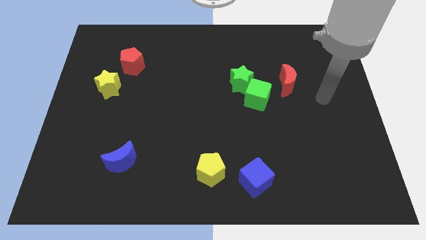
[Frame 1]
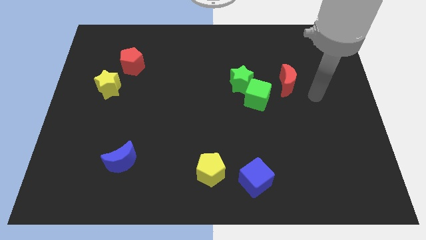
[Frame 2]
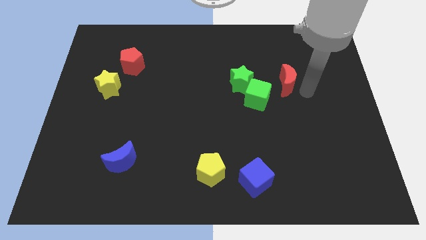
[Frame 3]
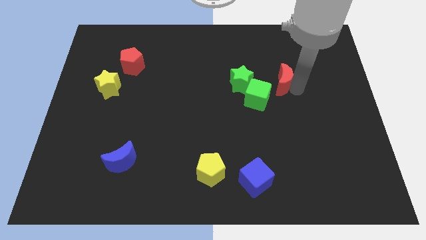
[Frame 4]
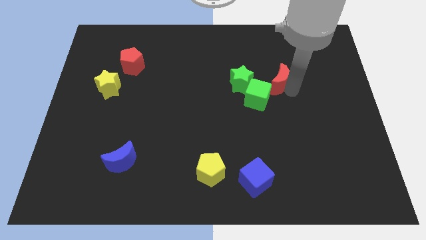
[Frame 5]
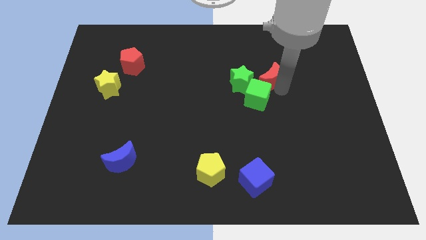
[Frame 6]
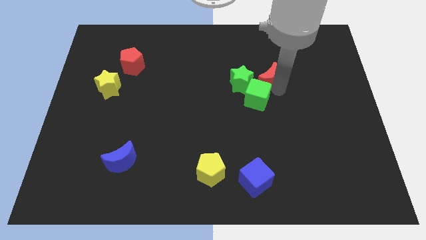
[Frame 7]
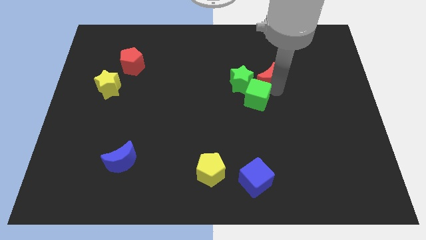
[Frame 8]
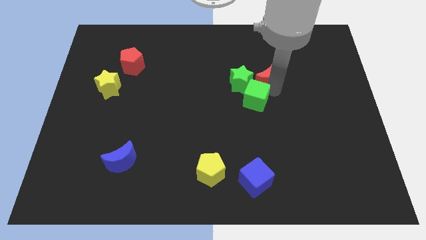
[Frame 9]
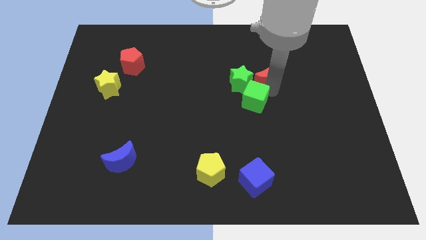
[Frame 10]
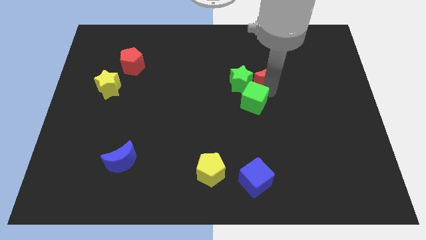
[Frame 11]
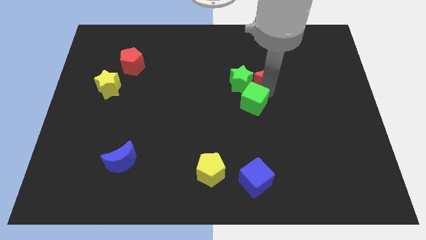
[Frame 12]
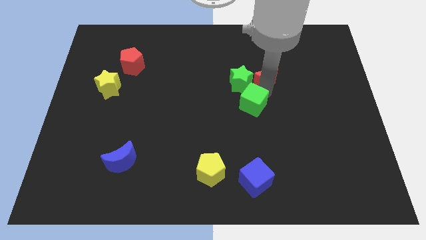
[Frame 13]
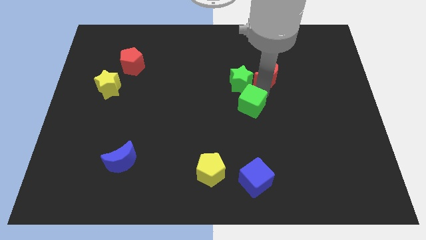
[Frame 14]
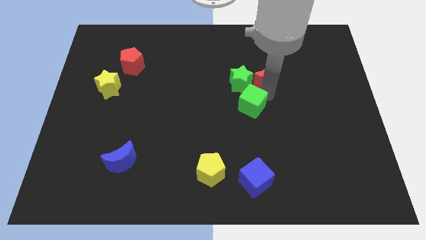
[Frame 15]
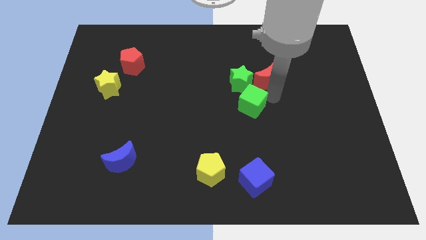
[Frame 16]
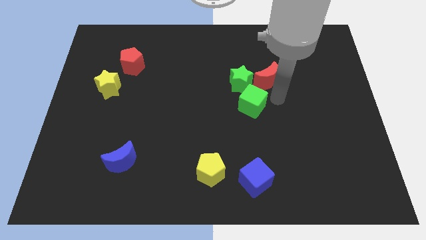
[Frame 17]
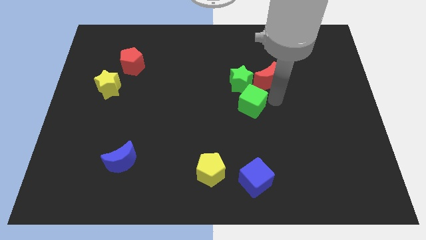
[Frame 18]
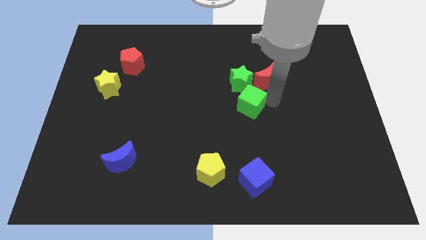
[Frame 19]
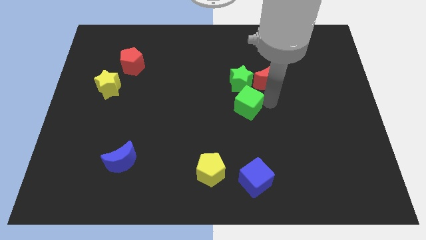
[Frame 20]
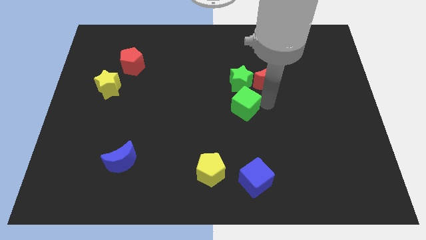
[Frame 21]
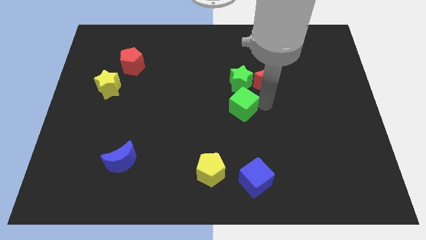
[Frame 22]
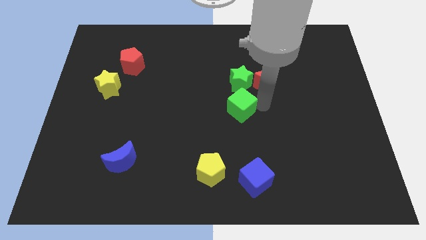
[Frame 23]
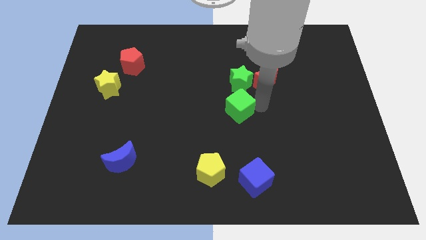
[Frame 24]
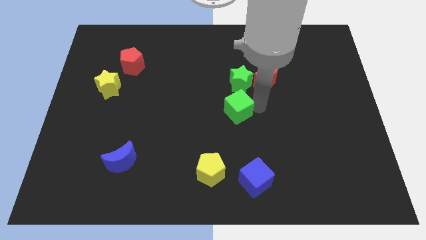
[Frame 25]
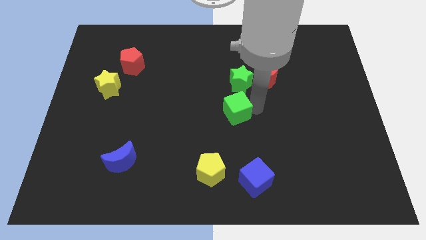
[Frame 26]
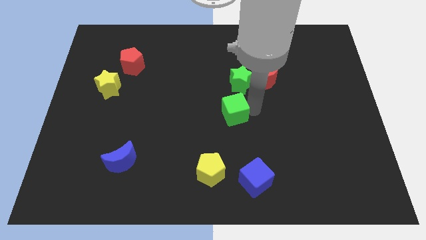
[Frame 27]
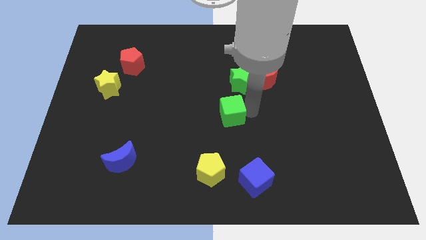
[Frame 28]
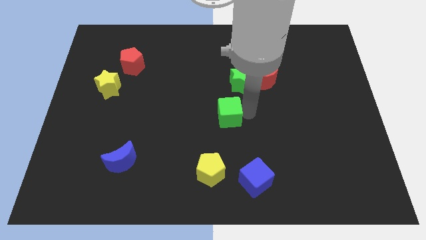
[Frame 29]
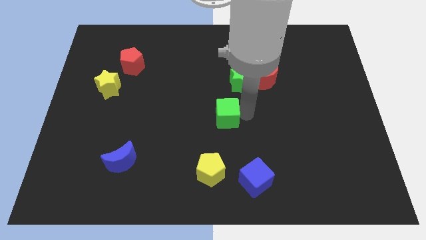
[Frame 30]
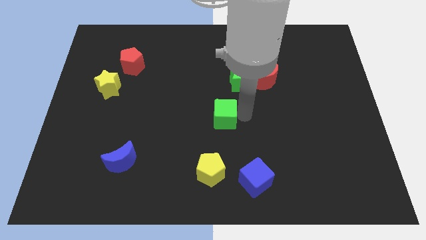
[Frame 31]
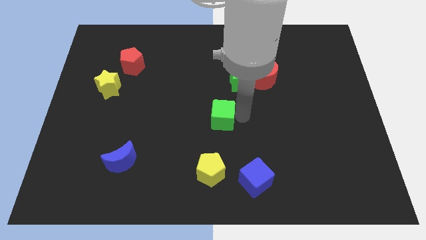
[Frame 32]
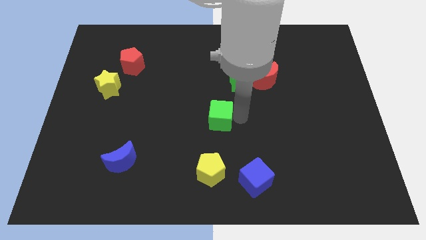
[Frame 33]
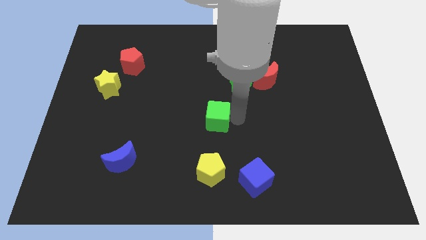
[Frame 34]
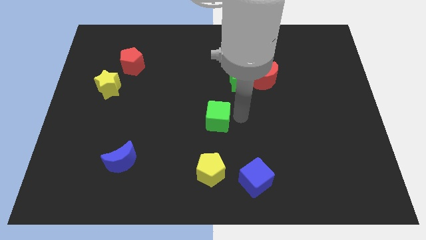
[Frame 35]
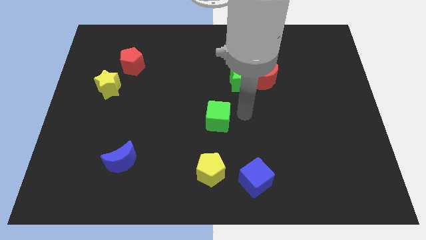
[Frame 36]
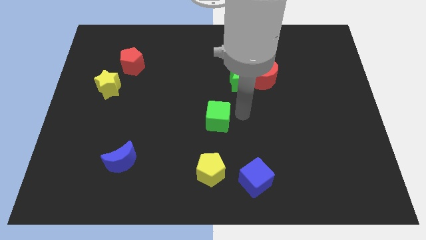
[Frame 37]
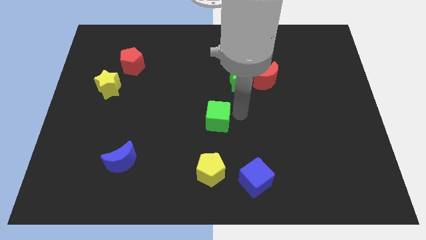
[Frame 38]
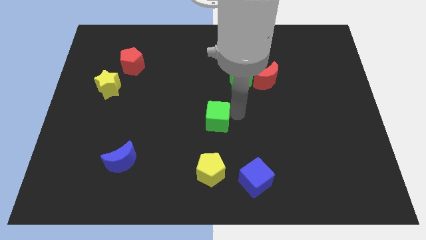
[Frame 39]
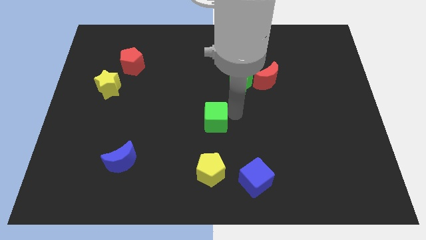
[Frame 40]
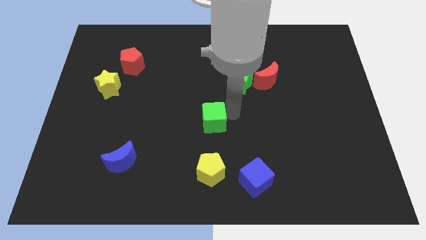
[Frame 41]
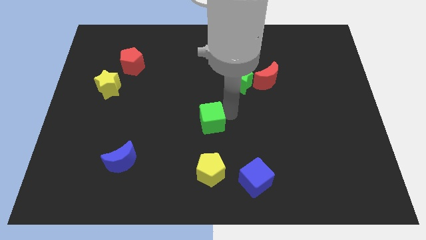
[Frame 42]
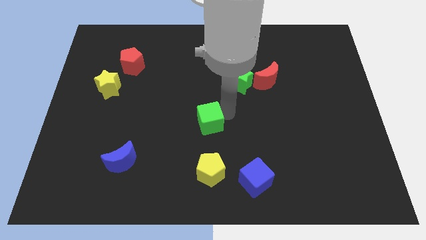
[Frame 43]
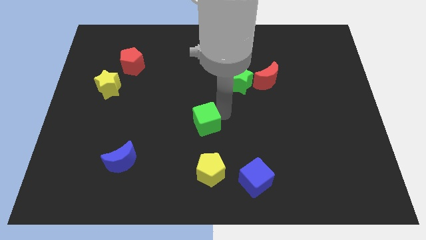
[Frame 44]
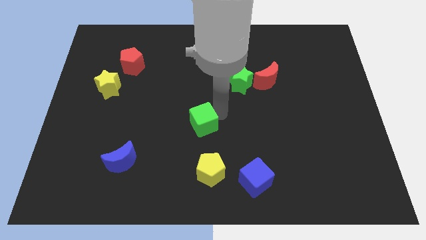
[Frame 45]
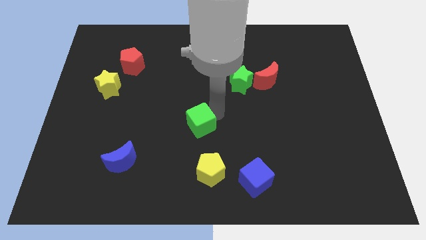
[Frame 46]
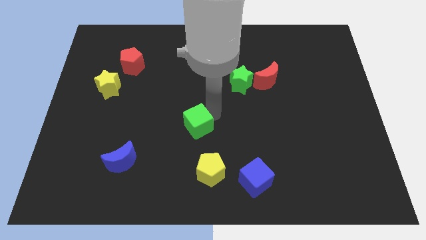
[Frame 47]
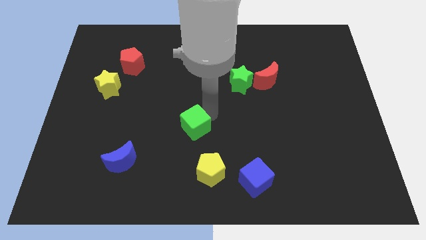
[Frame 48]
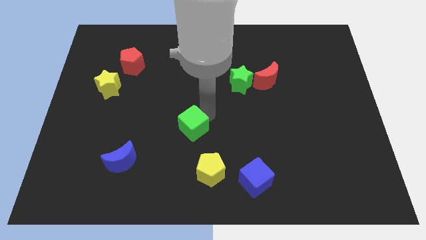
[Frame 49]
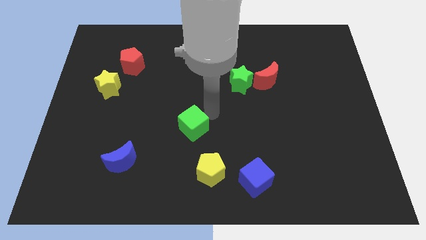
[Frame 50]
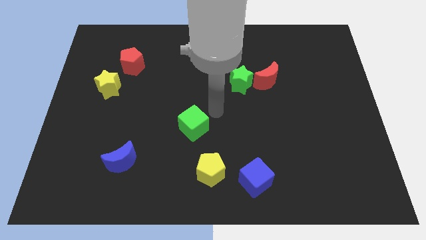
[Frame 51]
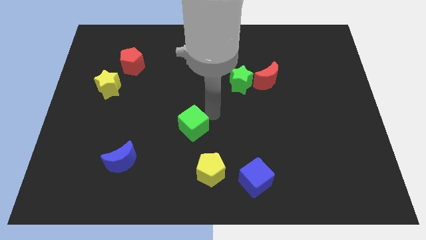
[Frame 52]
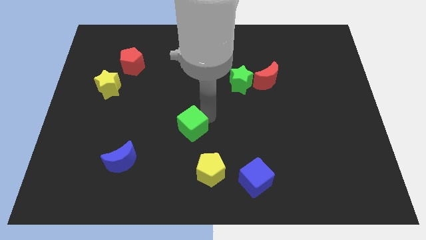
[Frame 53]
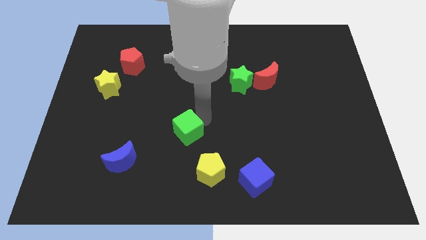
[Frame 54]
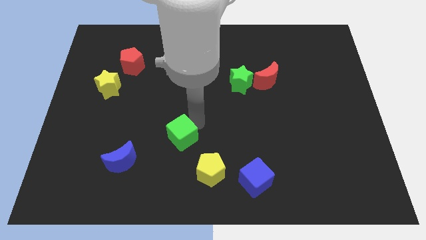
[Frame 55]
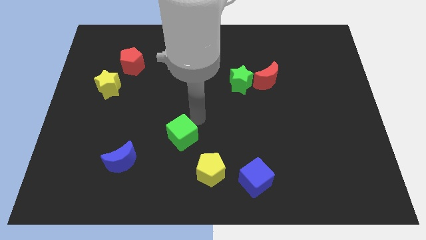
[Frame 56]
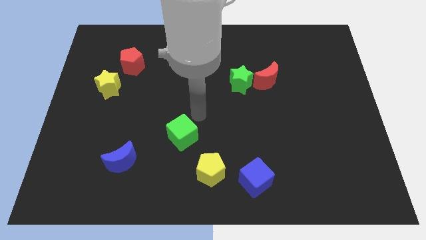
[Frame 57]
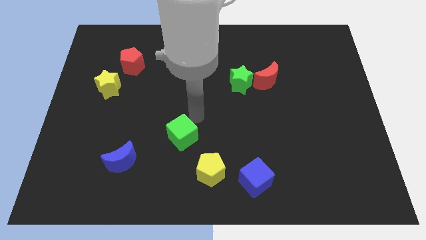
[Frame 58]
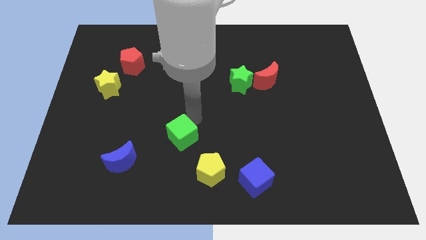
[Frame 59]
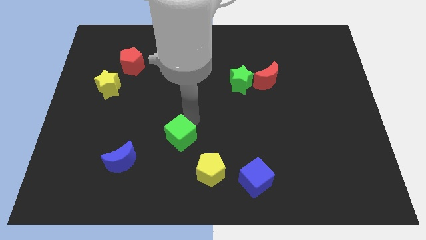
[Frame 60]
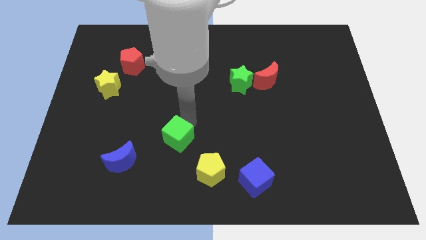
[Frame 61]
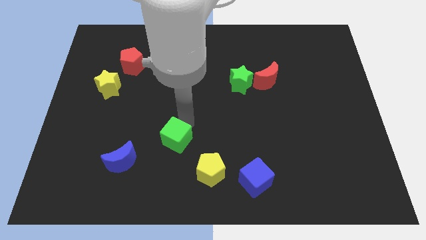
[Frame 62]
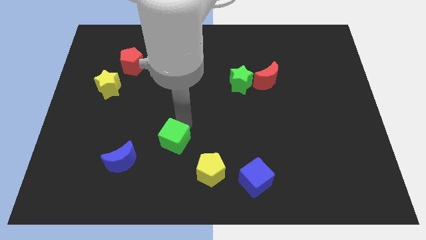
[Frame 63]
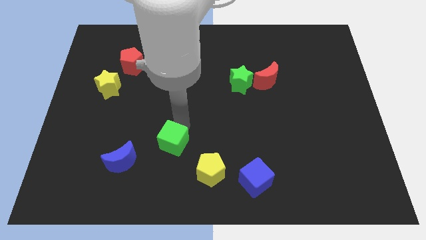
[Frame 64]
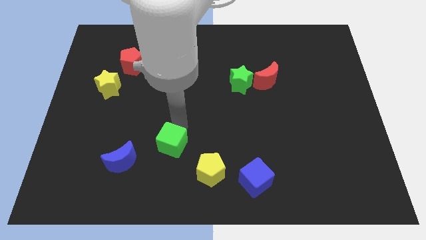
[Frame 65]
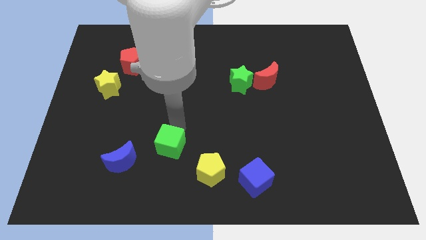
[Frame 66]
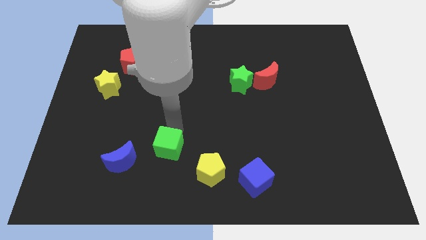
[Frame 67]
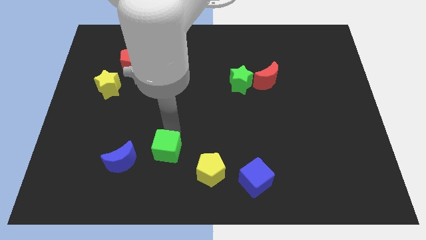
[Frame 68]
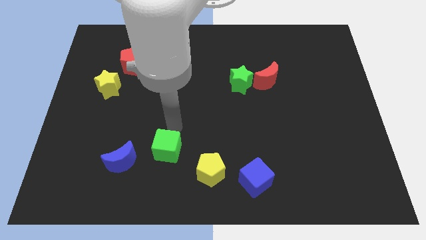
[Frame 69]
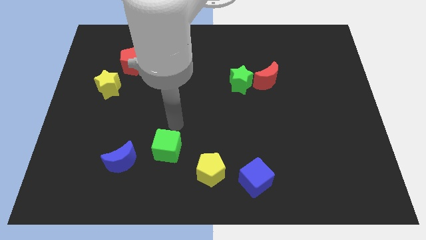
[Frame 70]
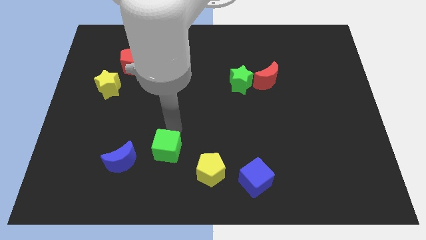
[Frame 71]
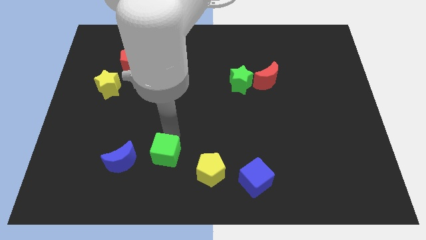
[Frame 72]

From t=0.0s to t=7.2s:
put the green cube just left of the yellow pentagon
